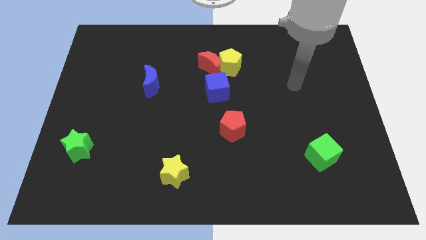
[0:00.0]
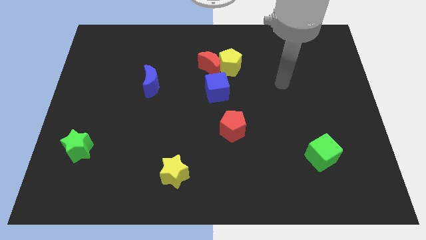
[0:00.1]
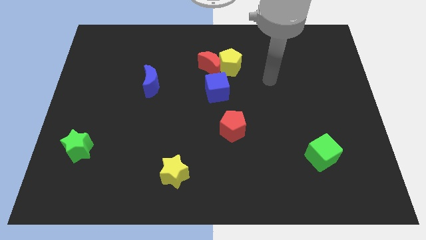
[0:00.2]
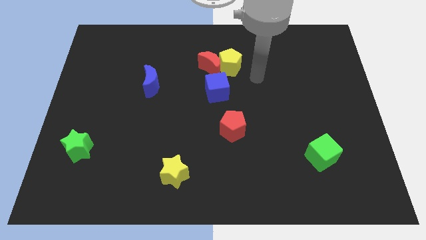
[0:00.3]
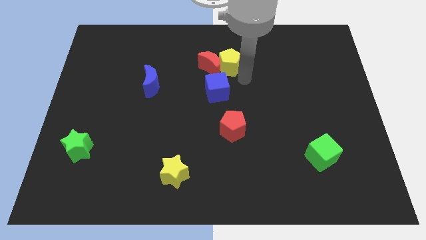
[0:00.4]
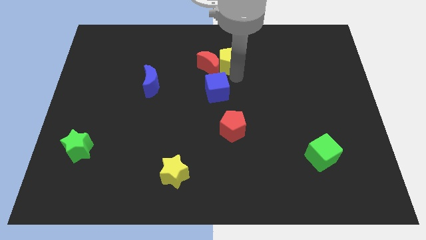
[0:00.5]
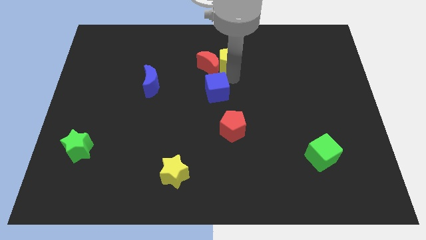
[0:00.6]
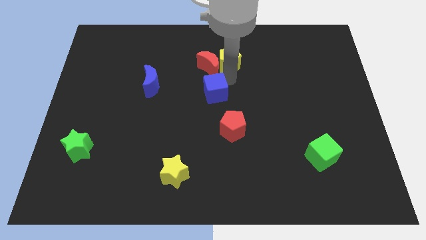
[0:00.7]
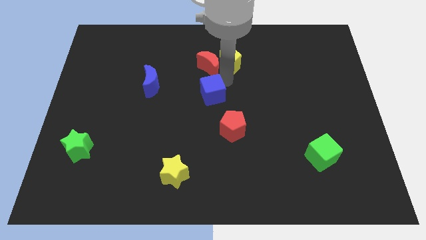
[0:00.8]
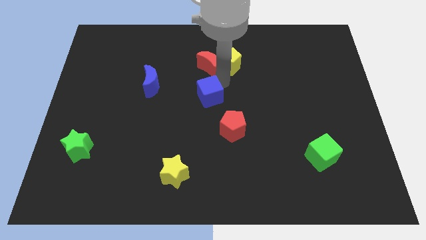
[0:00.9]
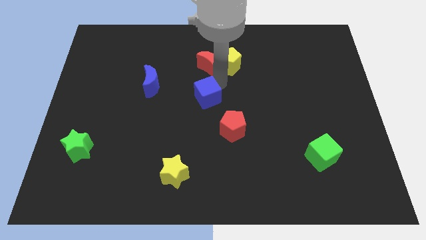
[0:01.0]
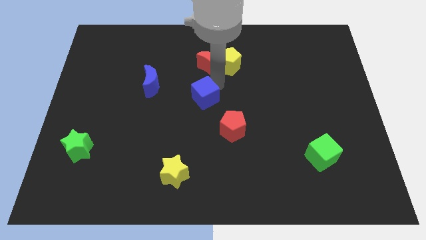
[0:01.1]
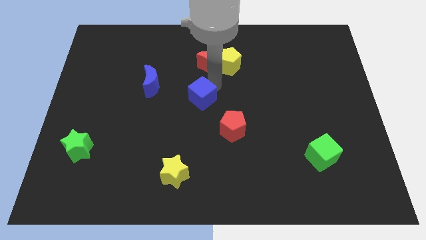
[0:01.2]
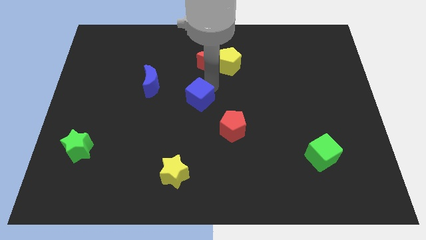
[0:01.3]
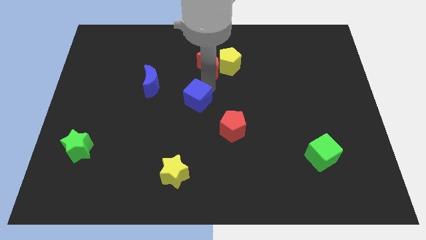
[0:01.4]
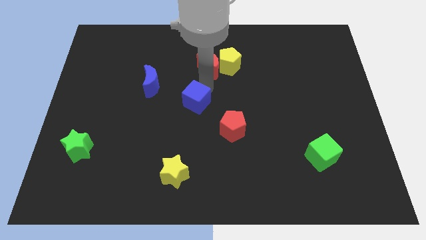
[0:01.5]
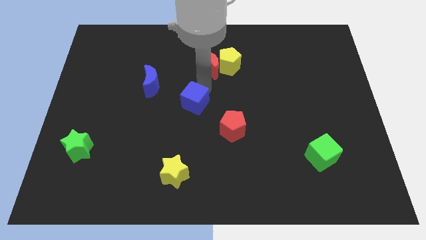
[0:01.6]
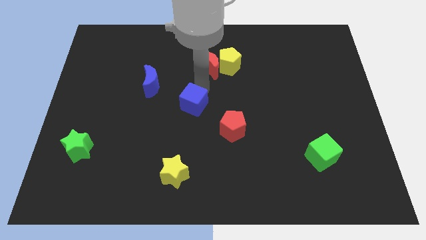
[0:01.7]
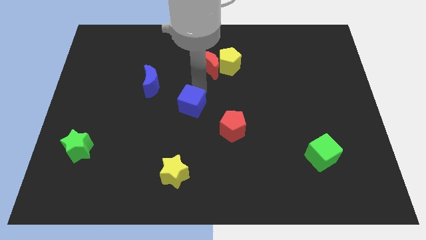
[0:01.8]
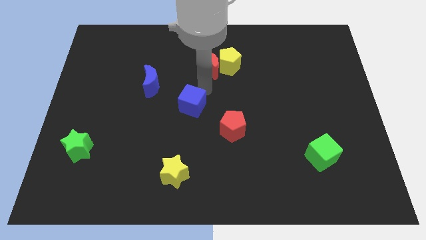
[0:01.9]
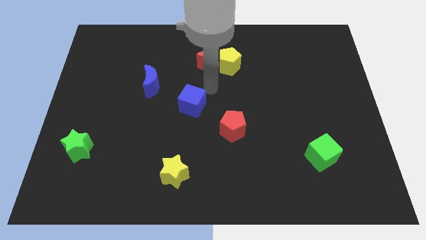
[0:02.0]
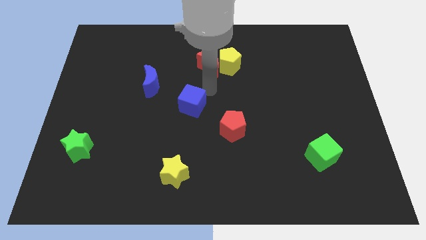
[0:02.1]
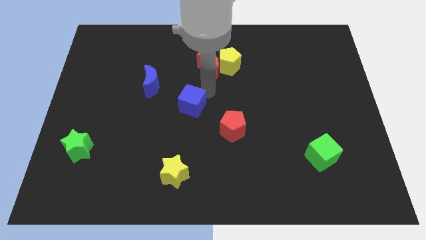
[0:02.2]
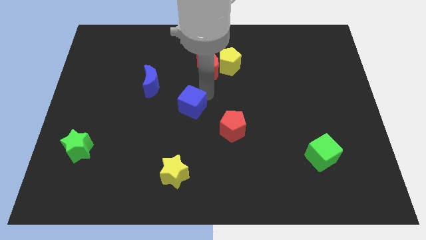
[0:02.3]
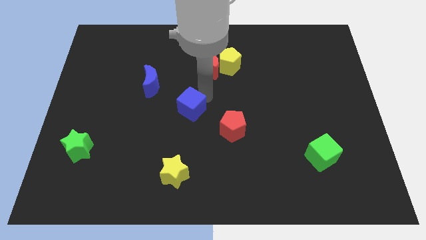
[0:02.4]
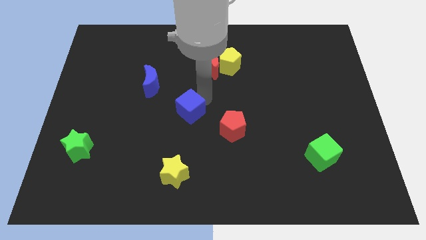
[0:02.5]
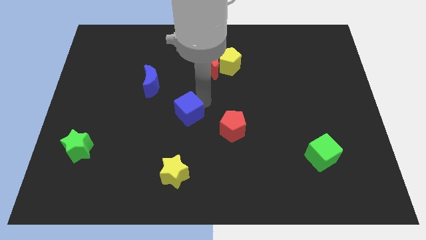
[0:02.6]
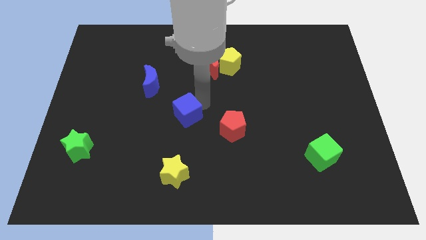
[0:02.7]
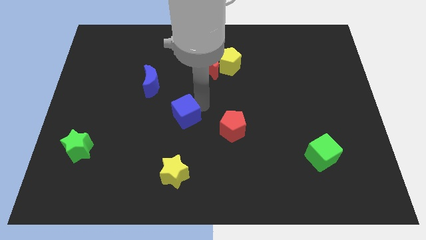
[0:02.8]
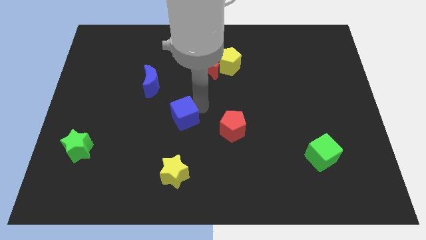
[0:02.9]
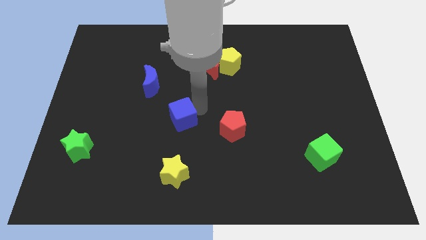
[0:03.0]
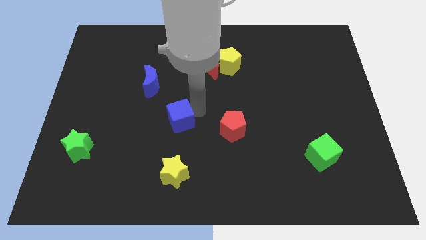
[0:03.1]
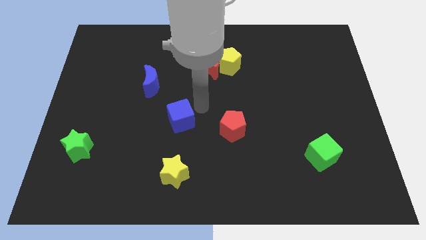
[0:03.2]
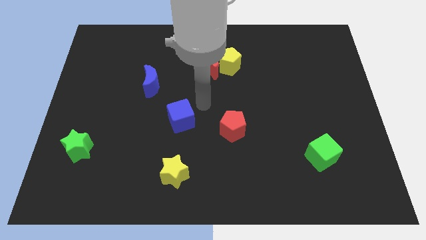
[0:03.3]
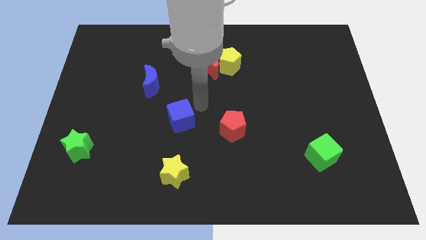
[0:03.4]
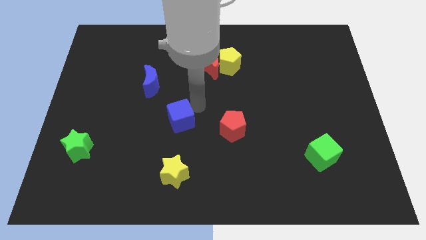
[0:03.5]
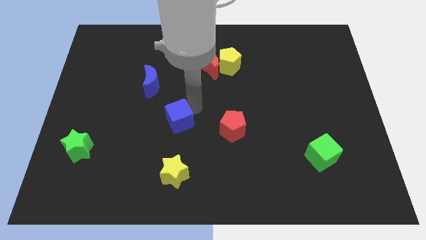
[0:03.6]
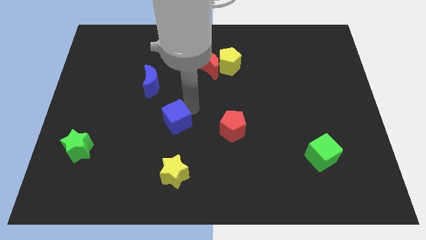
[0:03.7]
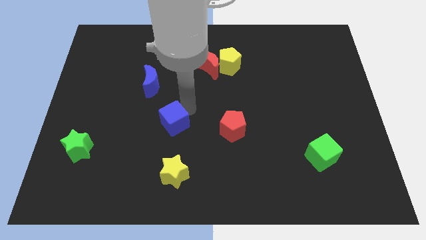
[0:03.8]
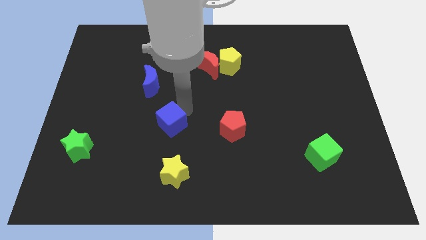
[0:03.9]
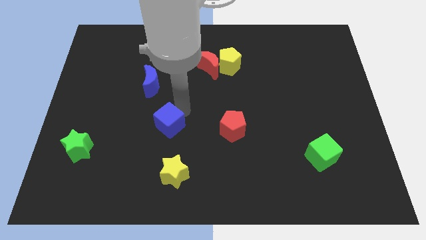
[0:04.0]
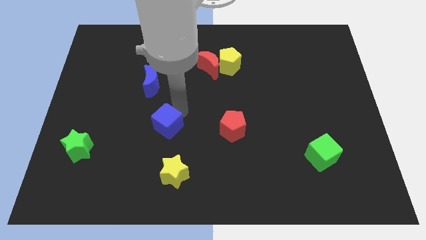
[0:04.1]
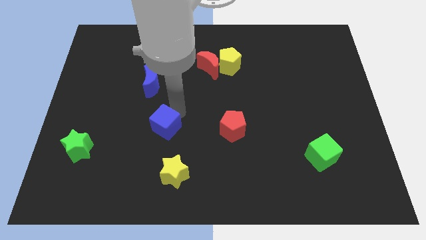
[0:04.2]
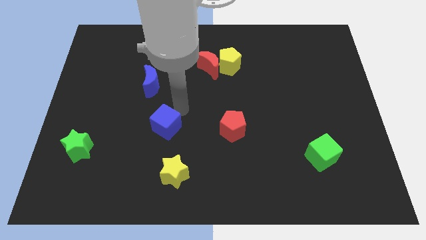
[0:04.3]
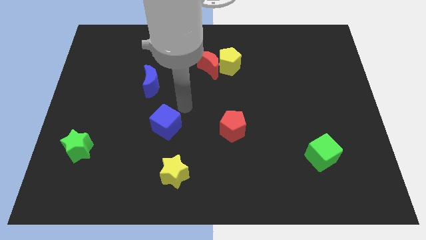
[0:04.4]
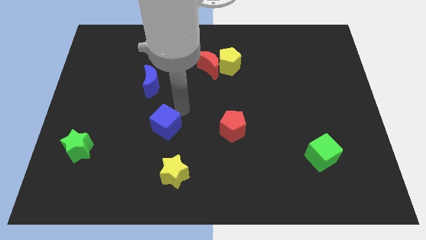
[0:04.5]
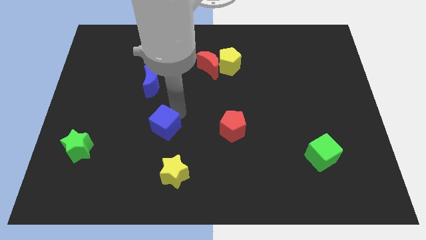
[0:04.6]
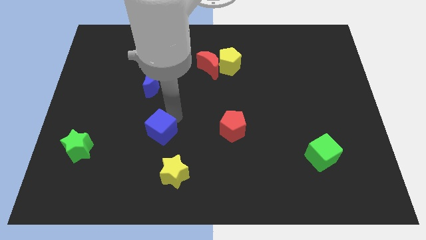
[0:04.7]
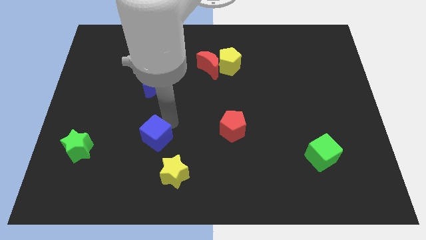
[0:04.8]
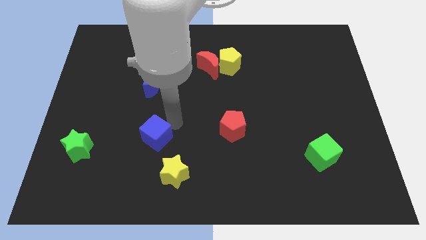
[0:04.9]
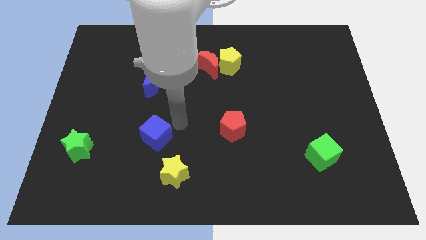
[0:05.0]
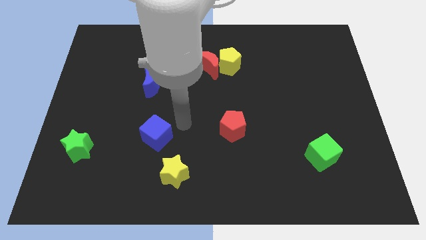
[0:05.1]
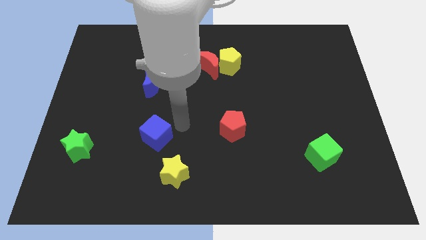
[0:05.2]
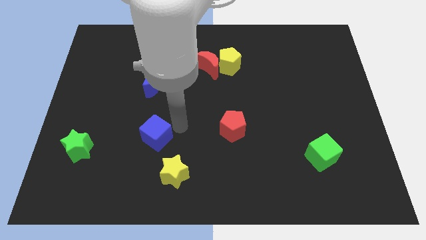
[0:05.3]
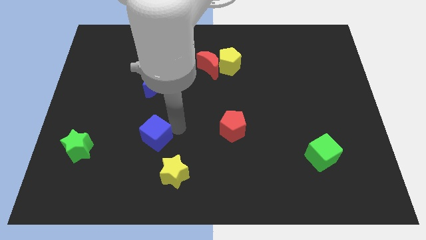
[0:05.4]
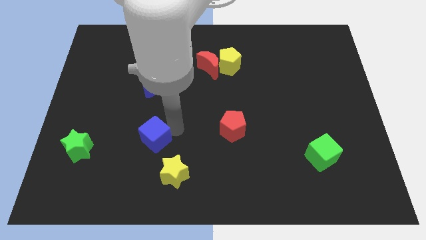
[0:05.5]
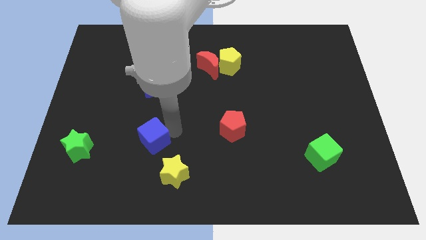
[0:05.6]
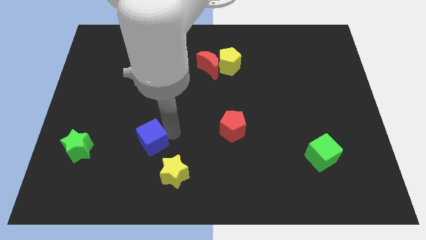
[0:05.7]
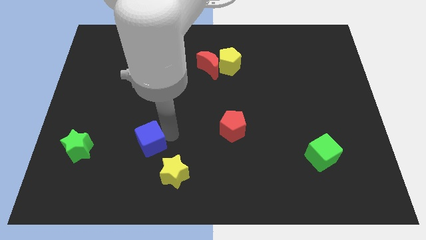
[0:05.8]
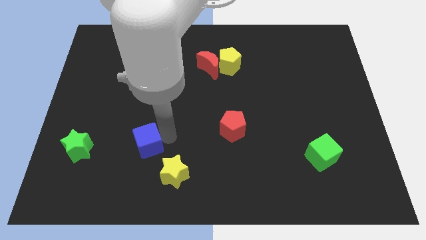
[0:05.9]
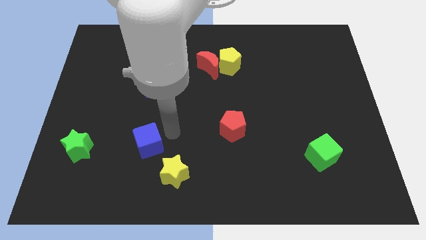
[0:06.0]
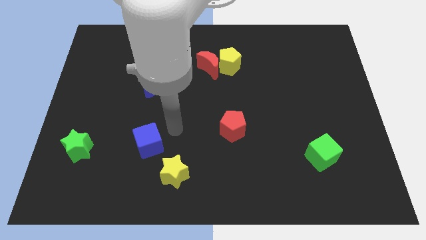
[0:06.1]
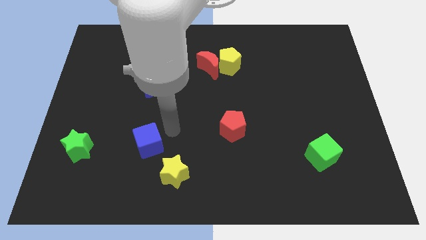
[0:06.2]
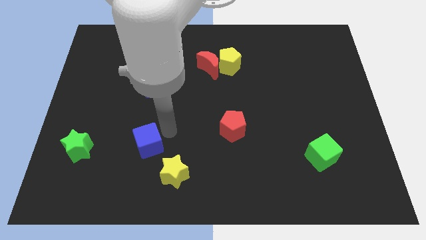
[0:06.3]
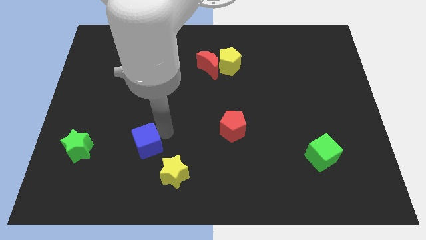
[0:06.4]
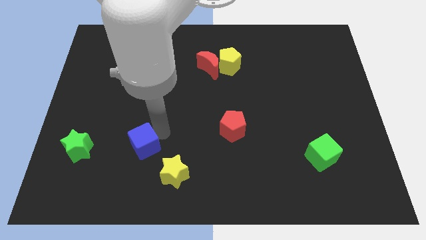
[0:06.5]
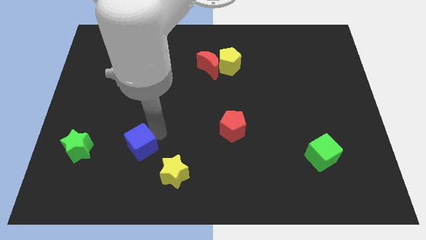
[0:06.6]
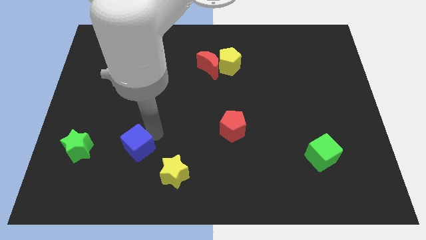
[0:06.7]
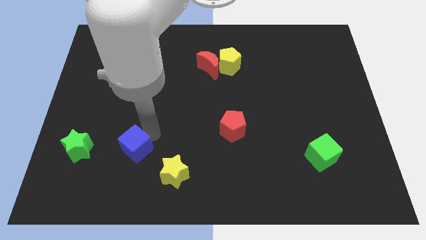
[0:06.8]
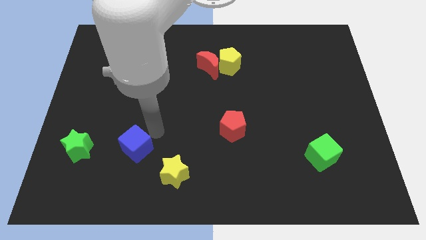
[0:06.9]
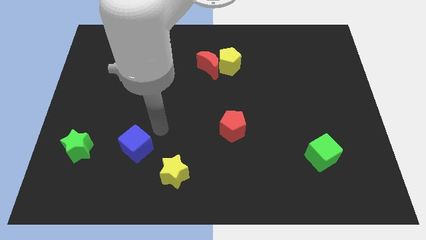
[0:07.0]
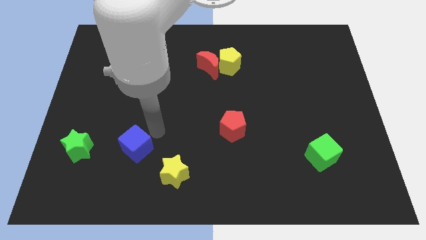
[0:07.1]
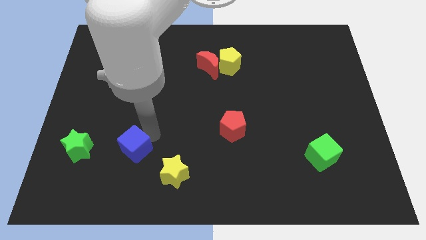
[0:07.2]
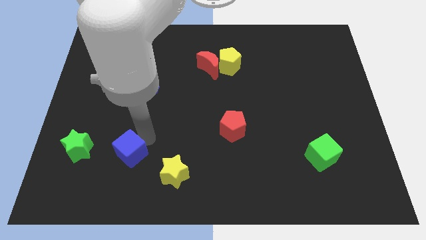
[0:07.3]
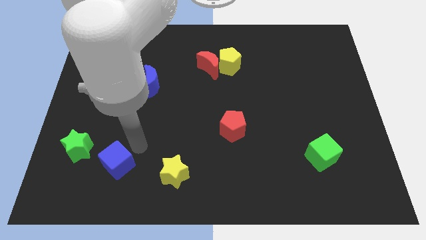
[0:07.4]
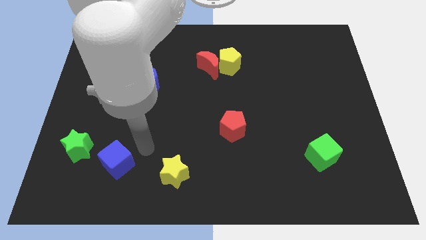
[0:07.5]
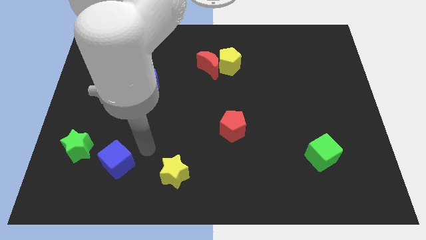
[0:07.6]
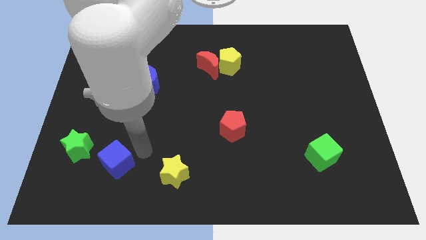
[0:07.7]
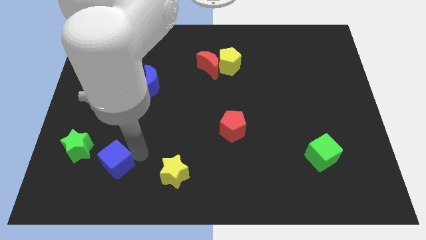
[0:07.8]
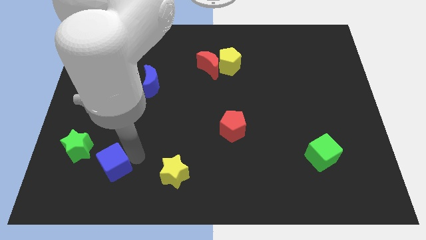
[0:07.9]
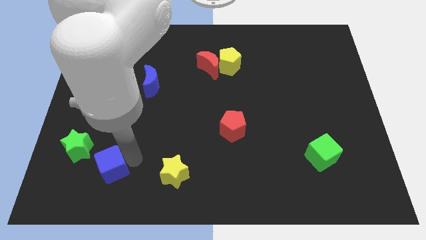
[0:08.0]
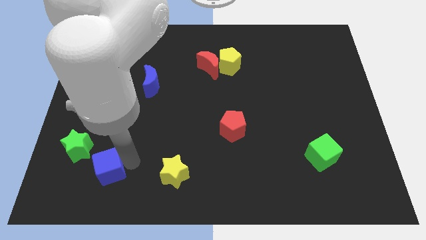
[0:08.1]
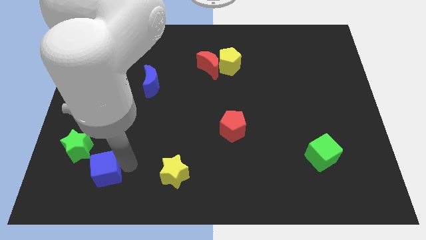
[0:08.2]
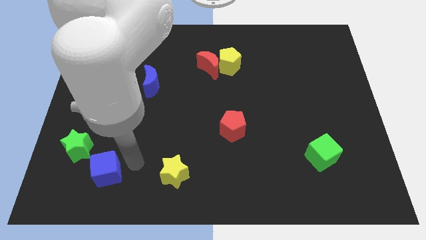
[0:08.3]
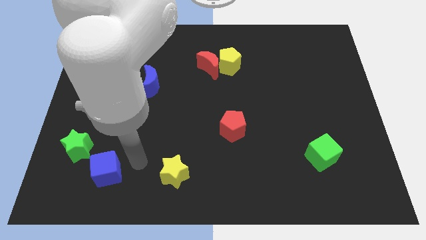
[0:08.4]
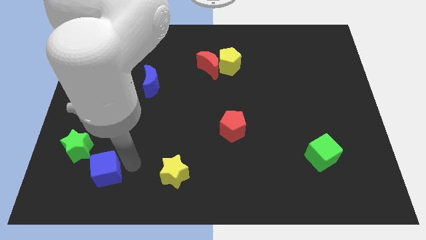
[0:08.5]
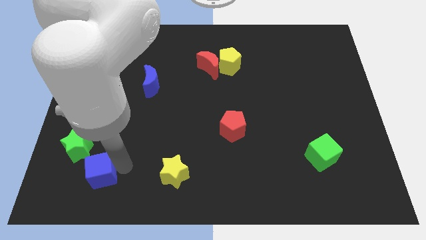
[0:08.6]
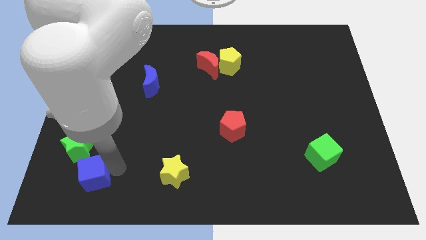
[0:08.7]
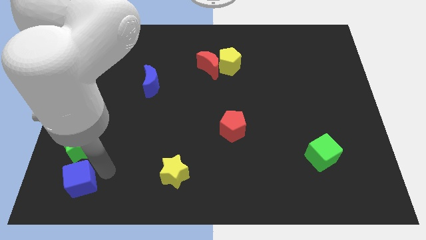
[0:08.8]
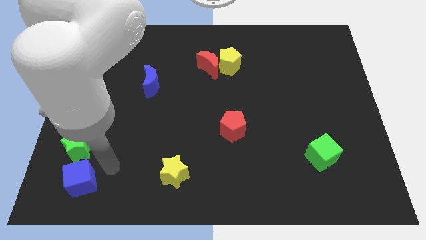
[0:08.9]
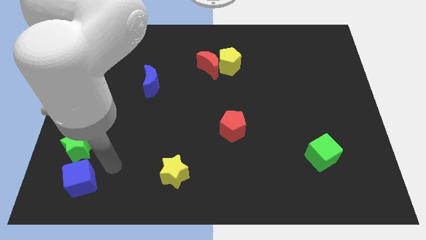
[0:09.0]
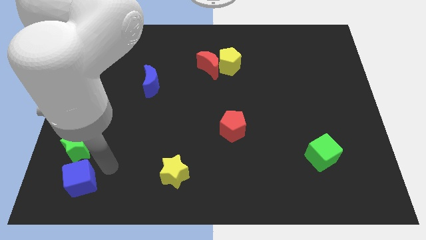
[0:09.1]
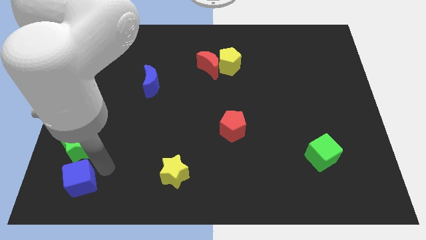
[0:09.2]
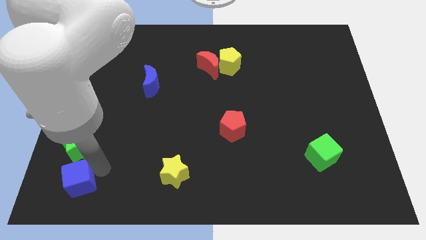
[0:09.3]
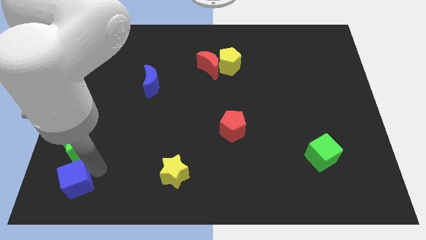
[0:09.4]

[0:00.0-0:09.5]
push the blue cube to the bottom left
